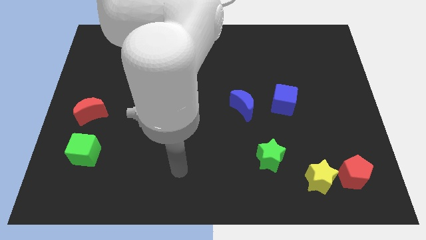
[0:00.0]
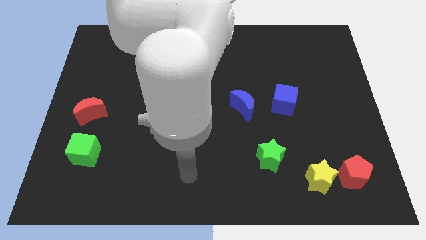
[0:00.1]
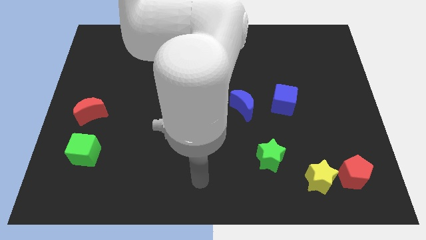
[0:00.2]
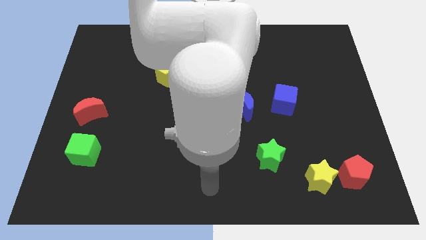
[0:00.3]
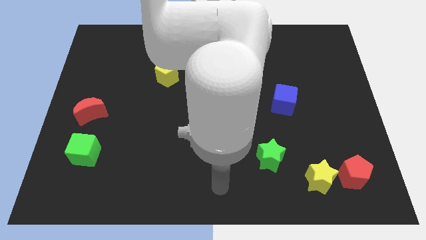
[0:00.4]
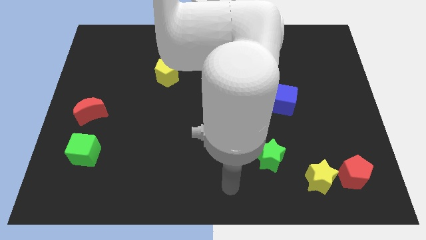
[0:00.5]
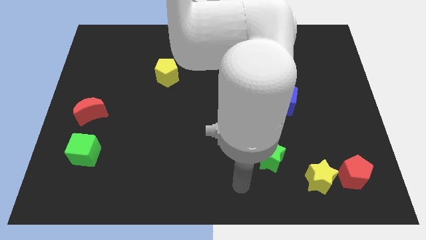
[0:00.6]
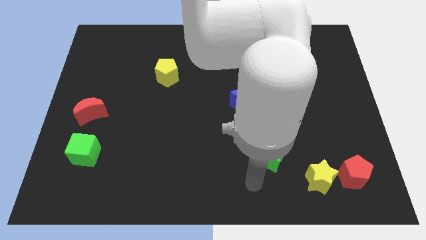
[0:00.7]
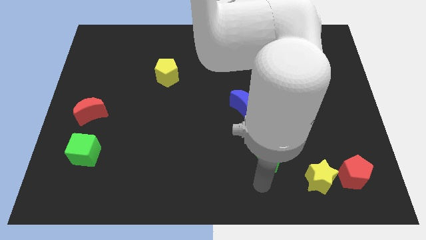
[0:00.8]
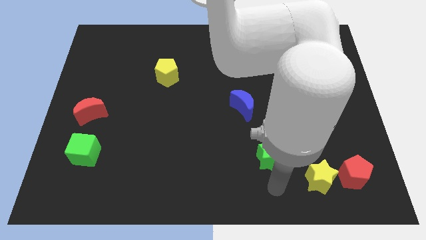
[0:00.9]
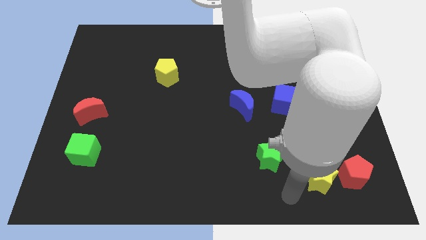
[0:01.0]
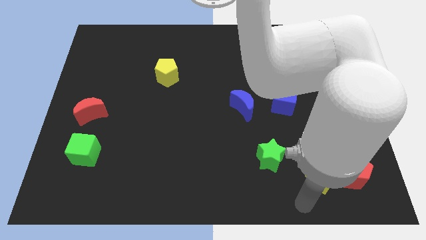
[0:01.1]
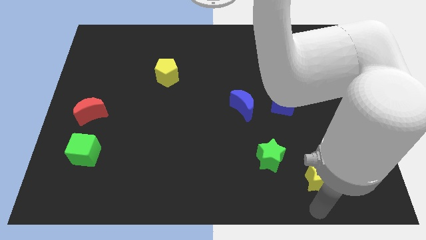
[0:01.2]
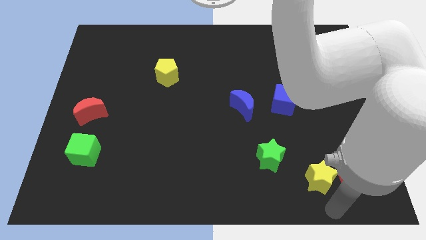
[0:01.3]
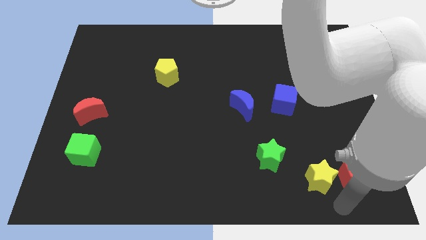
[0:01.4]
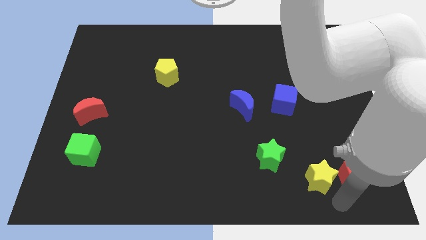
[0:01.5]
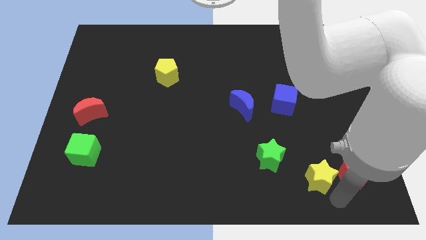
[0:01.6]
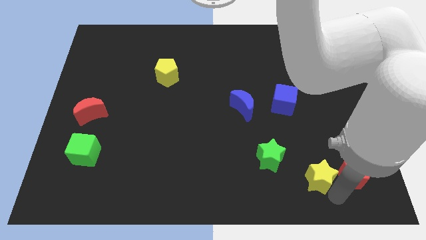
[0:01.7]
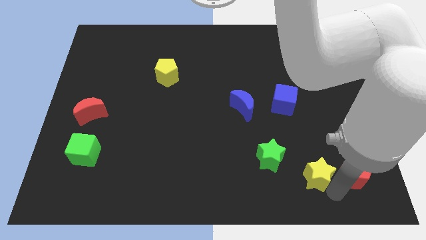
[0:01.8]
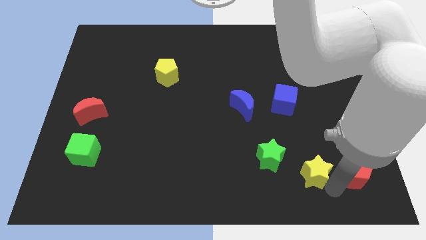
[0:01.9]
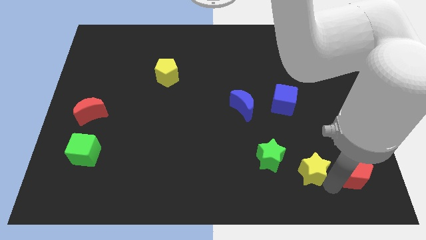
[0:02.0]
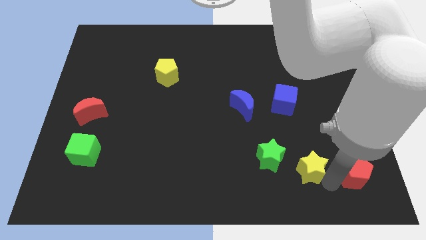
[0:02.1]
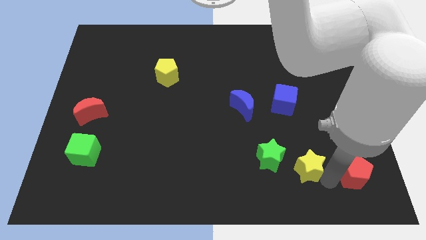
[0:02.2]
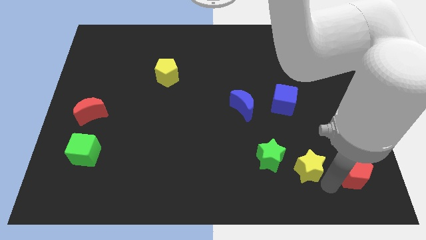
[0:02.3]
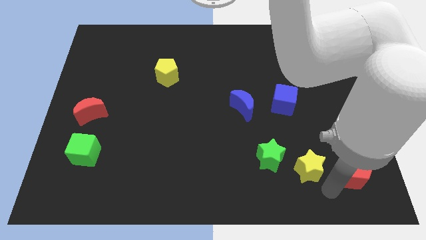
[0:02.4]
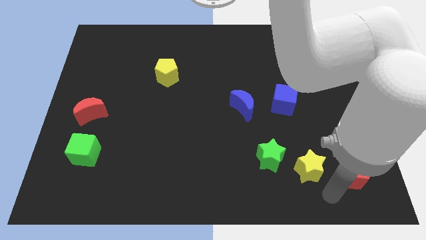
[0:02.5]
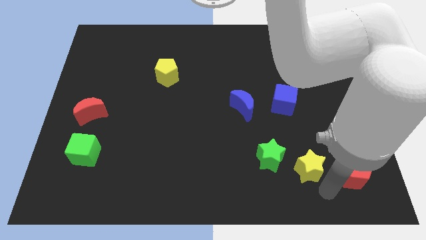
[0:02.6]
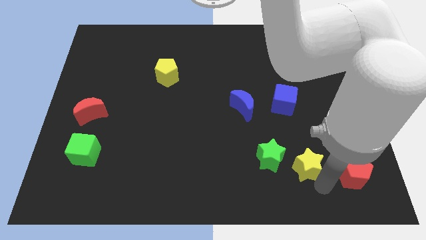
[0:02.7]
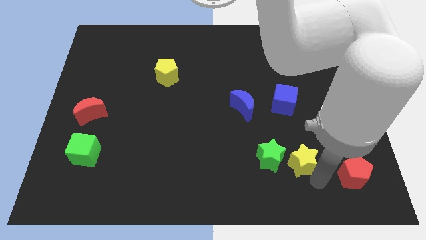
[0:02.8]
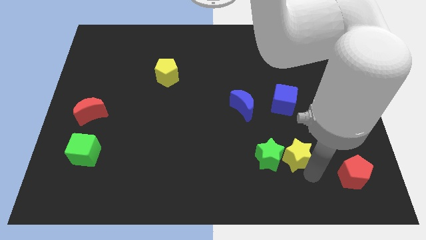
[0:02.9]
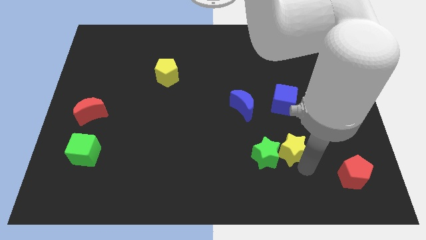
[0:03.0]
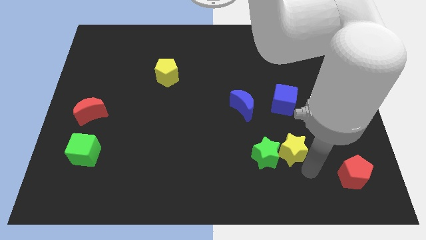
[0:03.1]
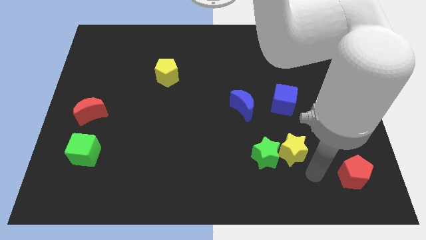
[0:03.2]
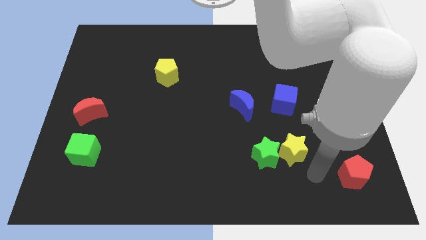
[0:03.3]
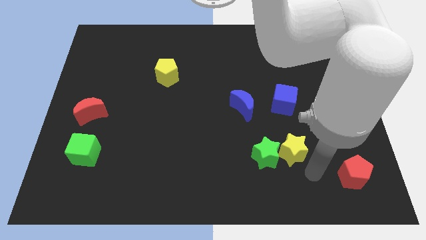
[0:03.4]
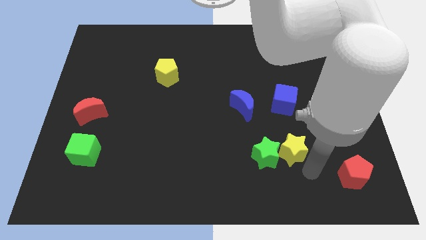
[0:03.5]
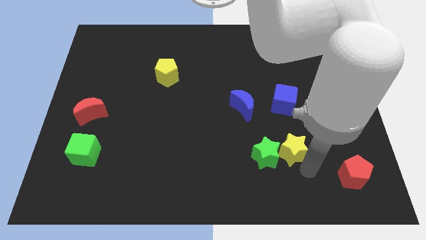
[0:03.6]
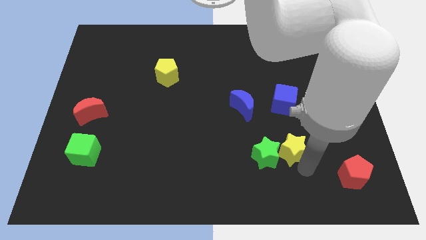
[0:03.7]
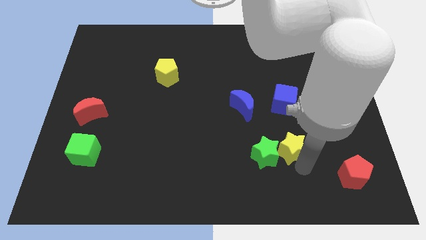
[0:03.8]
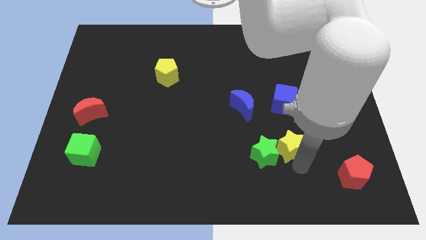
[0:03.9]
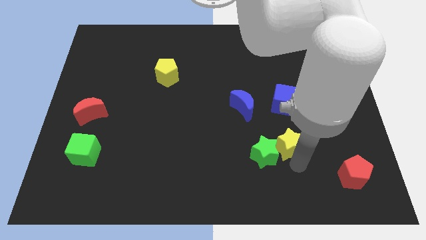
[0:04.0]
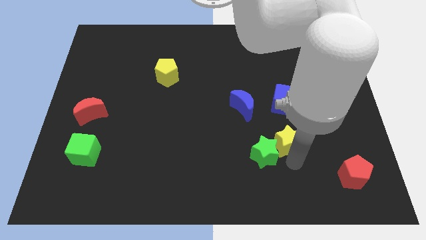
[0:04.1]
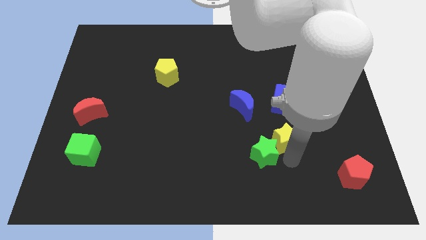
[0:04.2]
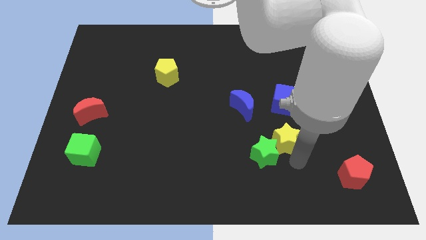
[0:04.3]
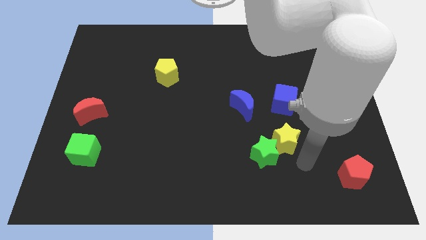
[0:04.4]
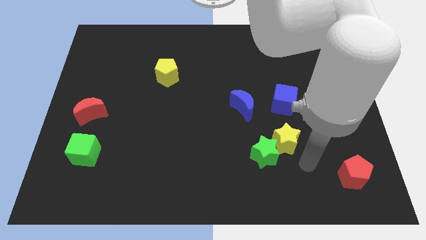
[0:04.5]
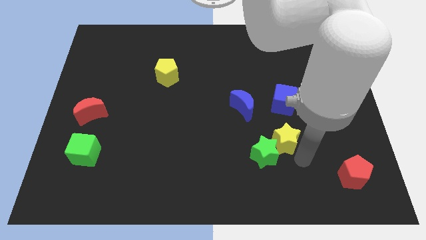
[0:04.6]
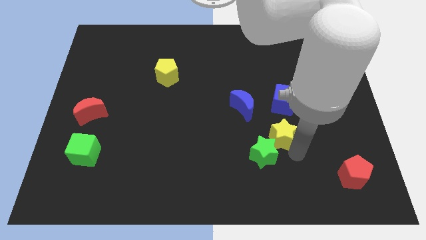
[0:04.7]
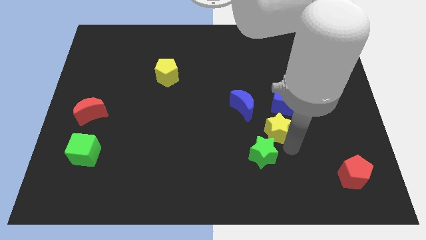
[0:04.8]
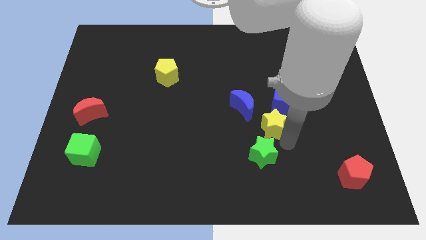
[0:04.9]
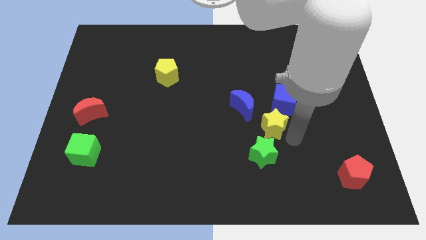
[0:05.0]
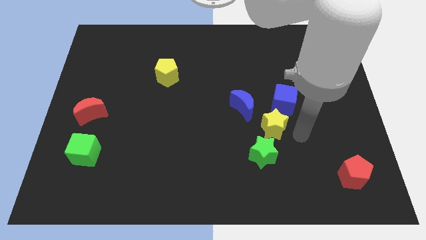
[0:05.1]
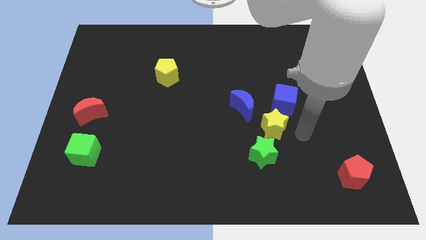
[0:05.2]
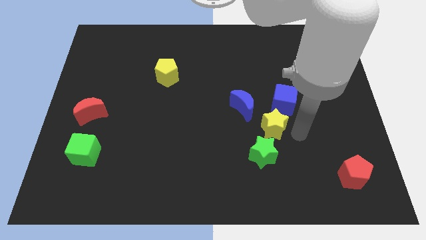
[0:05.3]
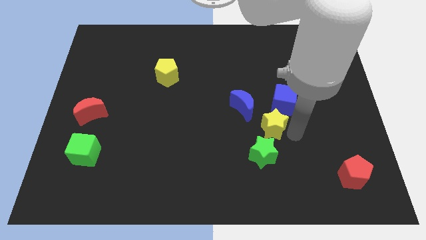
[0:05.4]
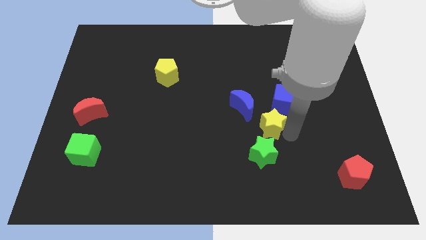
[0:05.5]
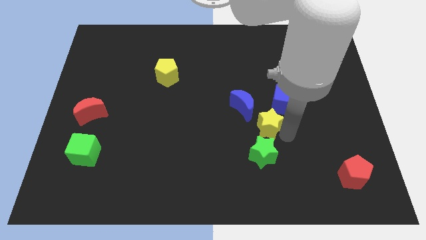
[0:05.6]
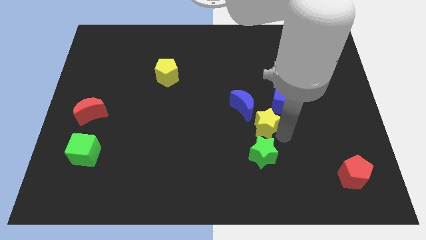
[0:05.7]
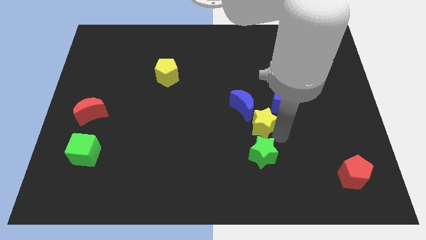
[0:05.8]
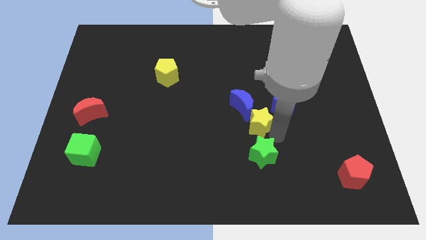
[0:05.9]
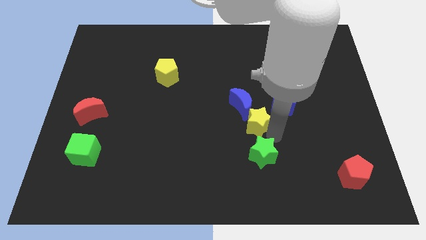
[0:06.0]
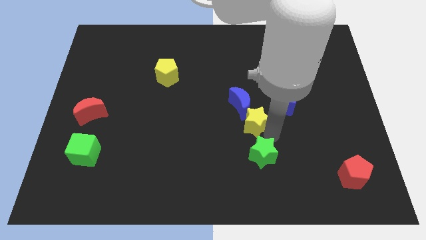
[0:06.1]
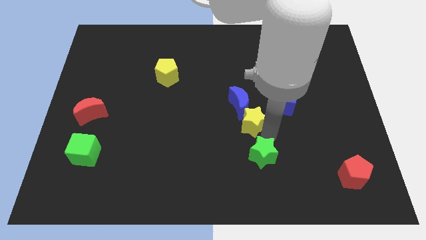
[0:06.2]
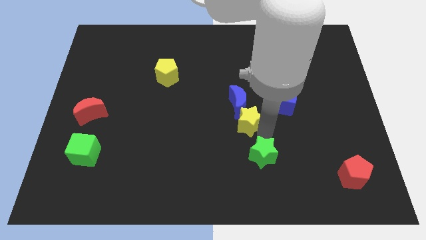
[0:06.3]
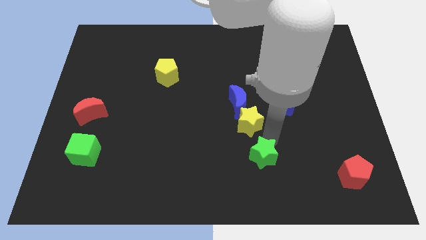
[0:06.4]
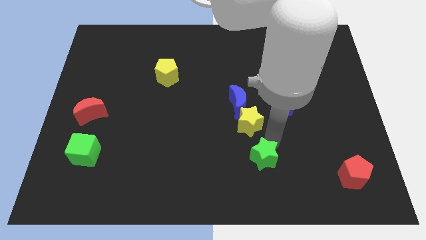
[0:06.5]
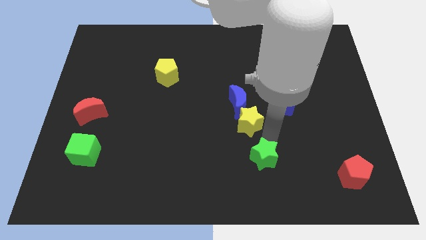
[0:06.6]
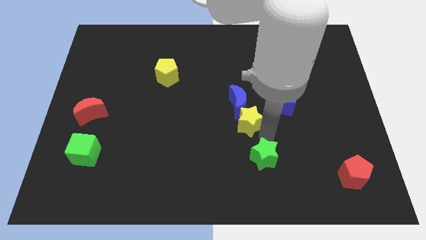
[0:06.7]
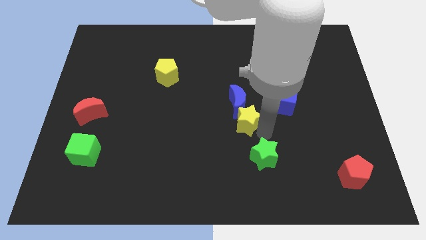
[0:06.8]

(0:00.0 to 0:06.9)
push the yellow star up and to the left

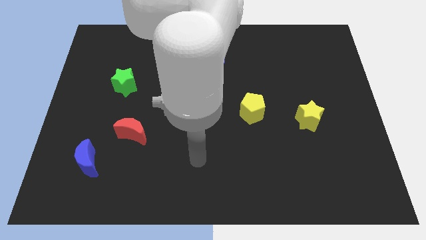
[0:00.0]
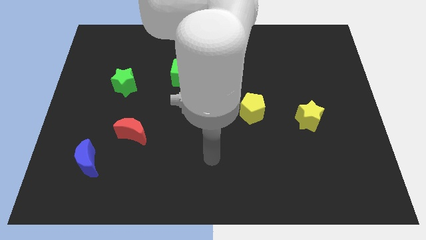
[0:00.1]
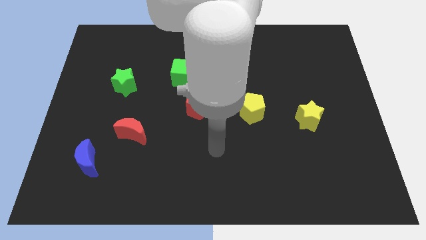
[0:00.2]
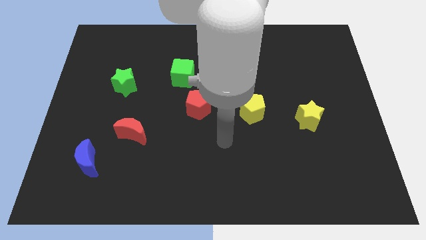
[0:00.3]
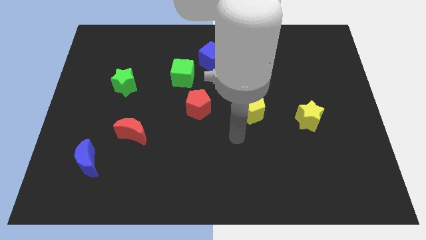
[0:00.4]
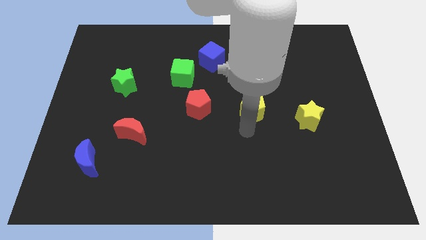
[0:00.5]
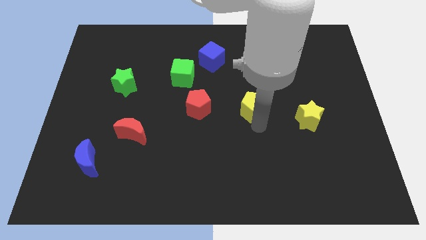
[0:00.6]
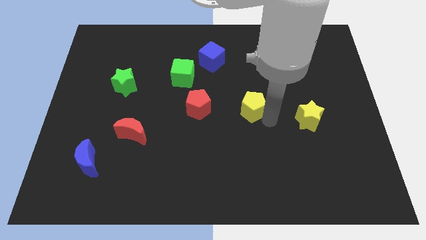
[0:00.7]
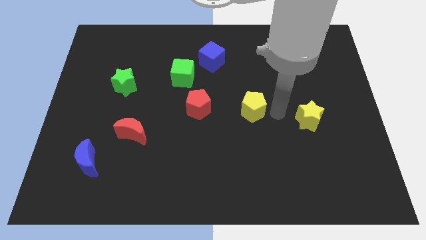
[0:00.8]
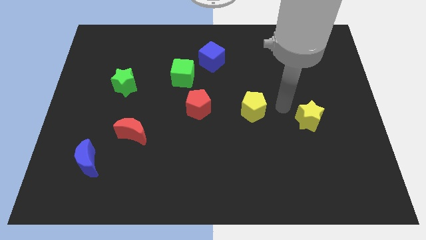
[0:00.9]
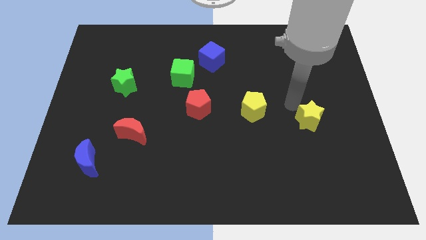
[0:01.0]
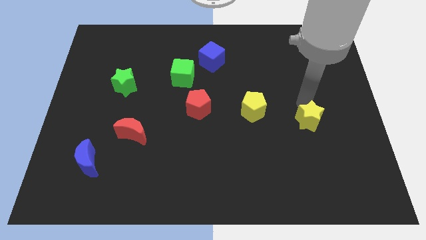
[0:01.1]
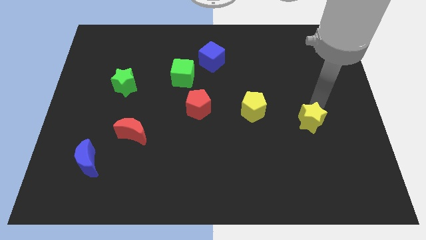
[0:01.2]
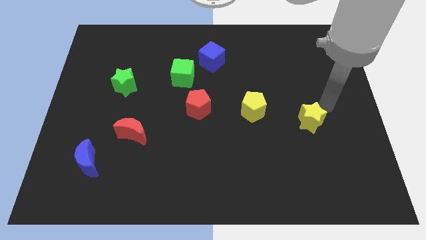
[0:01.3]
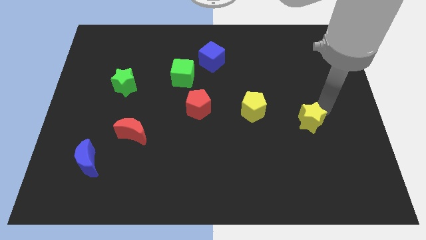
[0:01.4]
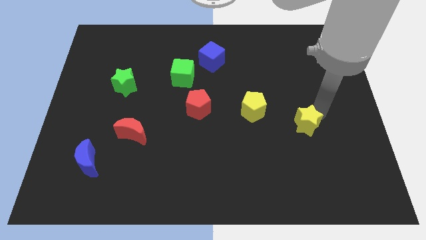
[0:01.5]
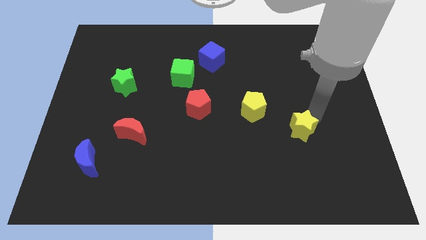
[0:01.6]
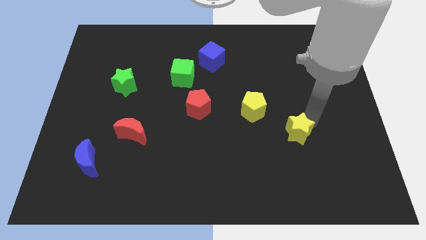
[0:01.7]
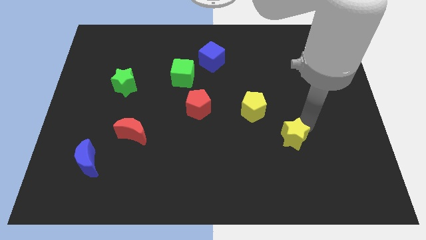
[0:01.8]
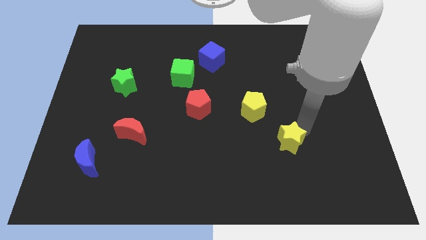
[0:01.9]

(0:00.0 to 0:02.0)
slide the yellow star down and then left a little
